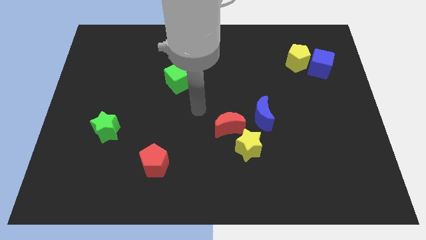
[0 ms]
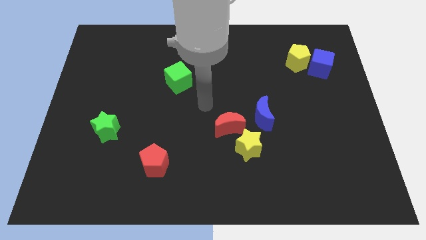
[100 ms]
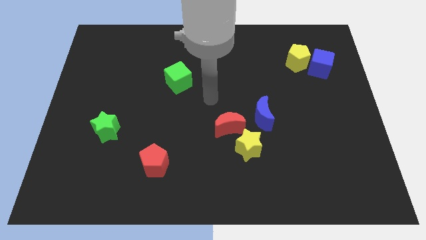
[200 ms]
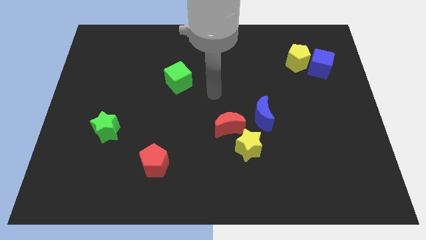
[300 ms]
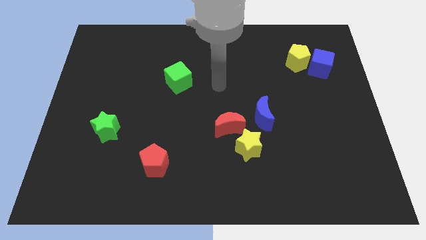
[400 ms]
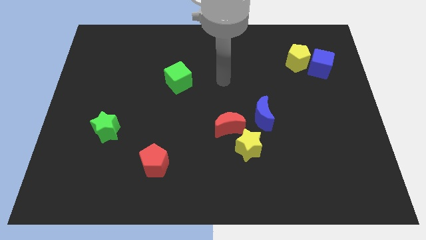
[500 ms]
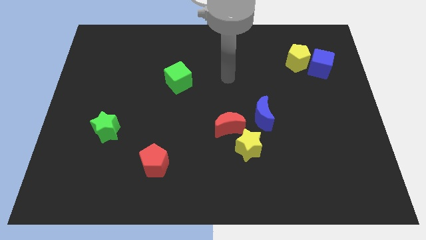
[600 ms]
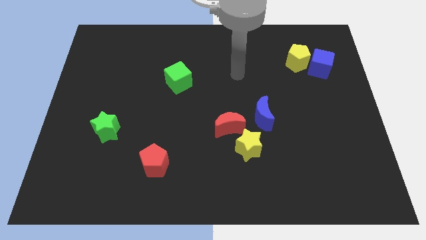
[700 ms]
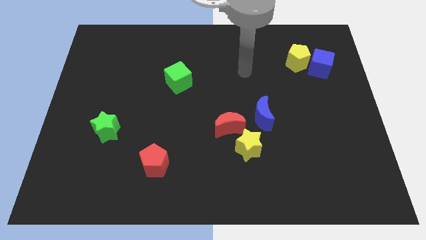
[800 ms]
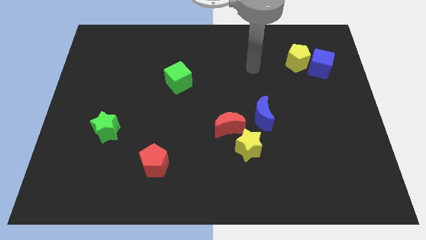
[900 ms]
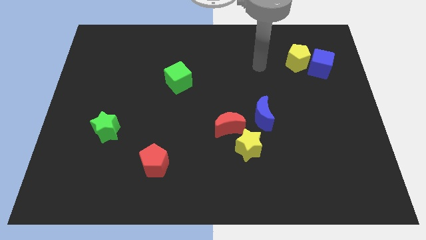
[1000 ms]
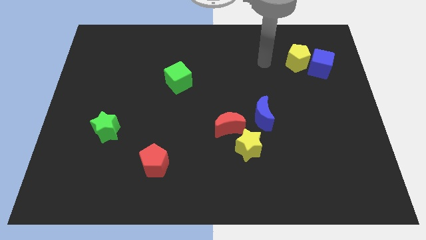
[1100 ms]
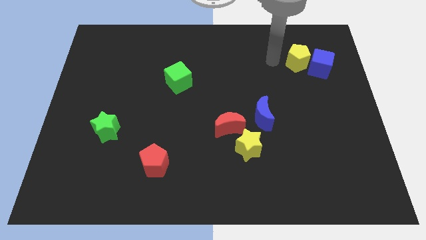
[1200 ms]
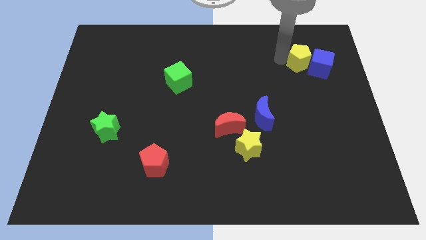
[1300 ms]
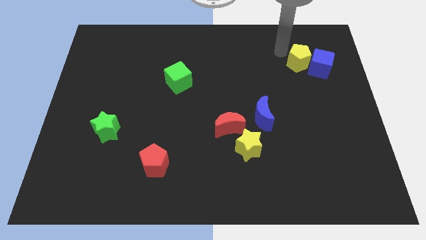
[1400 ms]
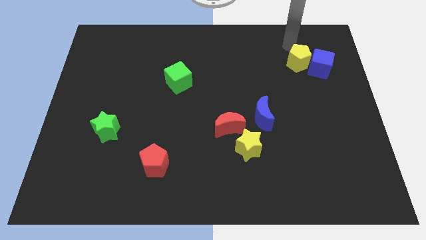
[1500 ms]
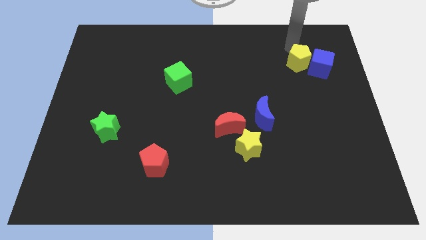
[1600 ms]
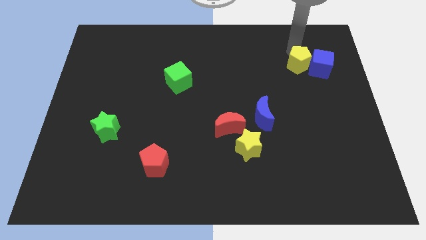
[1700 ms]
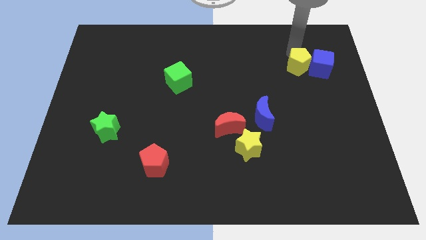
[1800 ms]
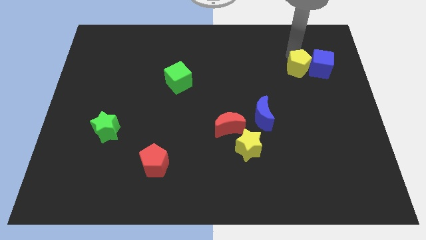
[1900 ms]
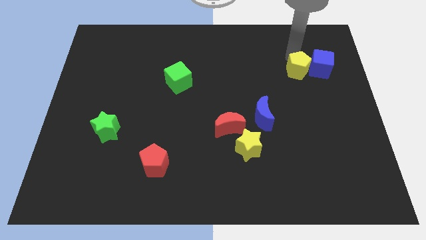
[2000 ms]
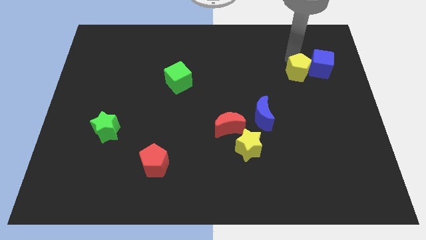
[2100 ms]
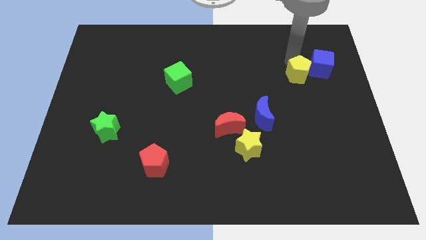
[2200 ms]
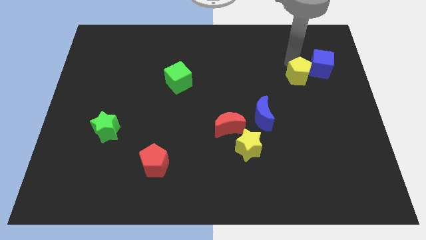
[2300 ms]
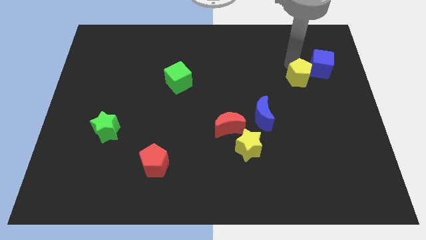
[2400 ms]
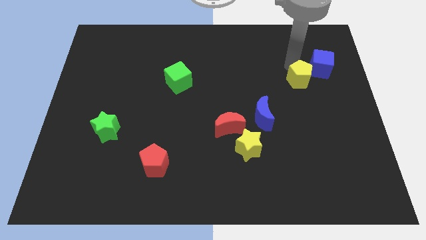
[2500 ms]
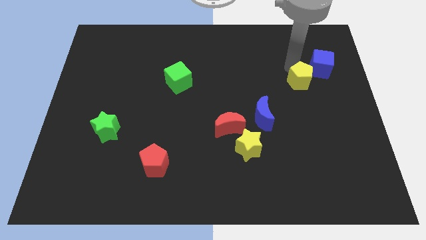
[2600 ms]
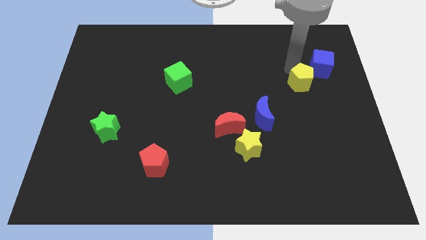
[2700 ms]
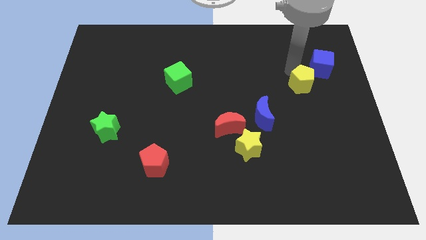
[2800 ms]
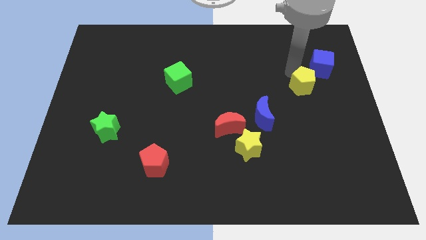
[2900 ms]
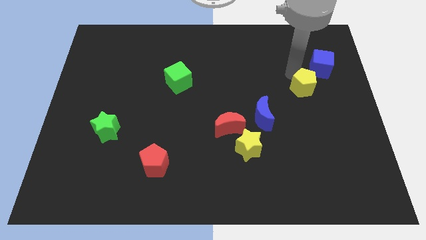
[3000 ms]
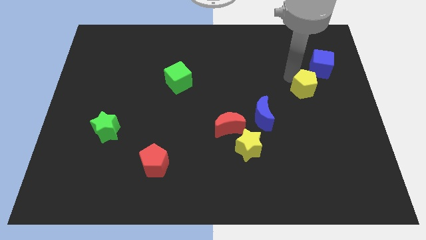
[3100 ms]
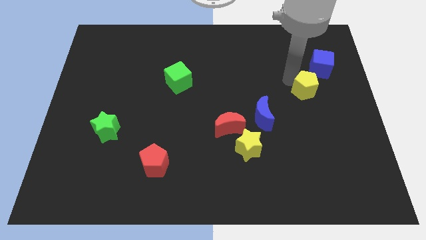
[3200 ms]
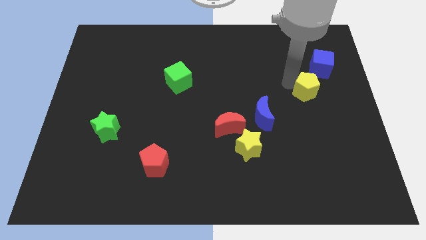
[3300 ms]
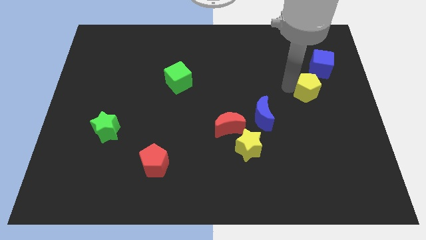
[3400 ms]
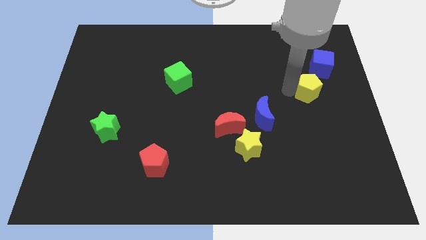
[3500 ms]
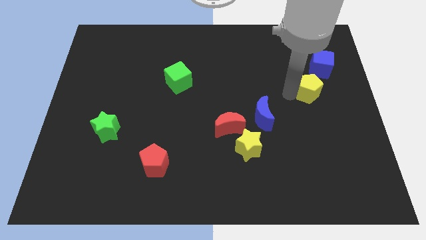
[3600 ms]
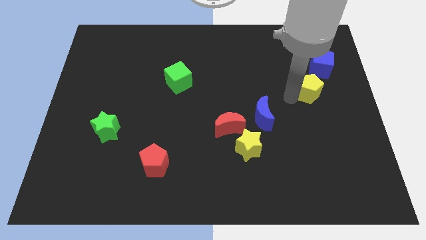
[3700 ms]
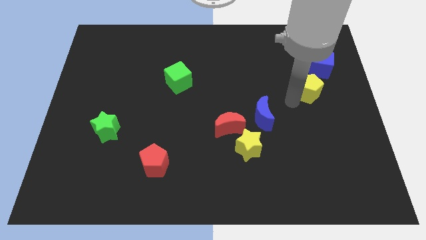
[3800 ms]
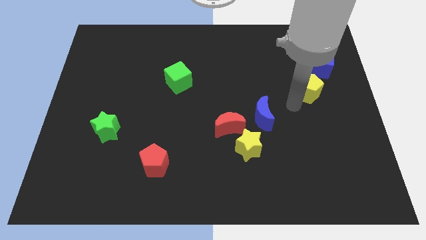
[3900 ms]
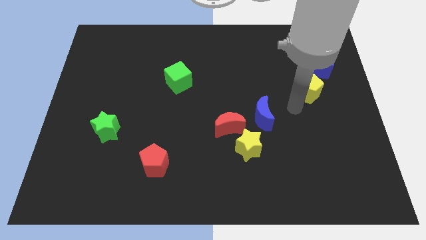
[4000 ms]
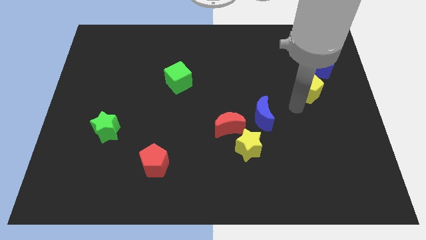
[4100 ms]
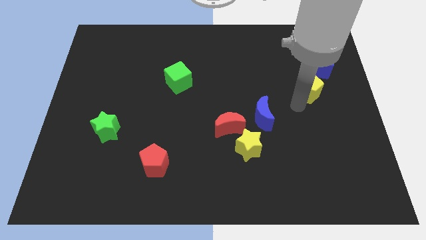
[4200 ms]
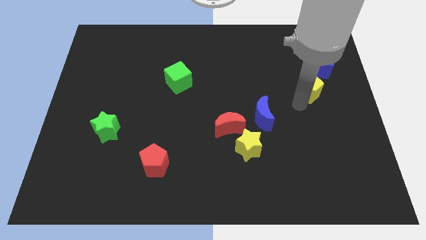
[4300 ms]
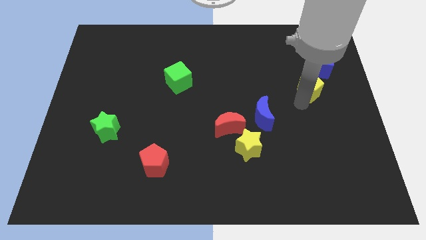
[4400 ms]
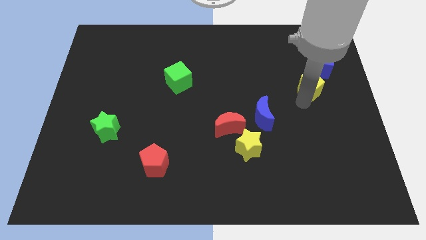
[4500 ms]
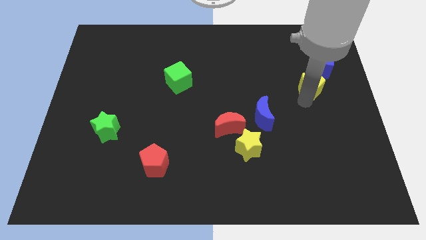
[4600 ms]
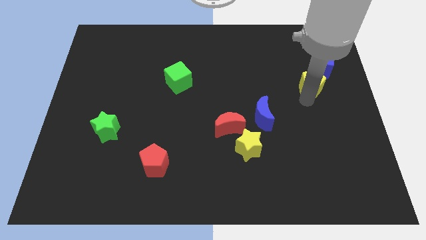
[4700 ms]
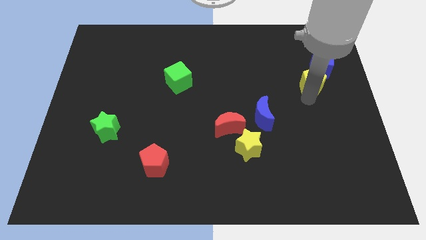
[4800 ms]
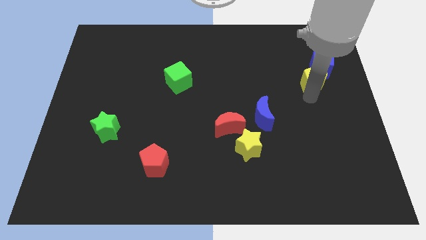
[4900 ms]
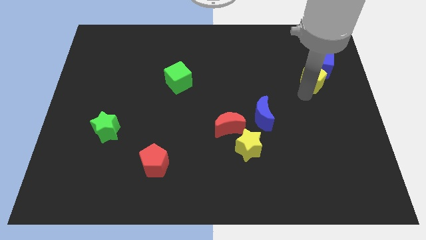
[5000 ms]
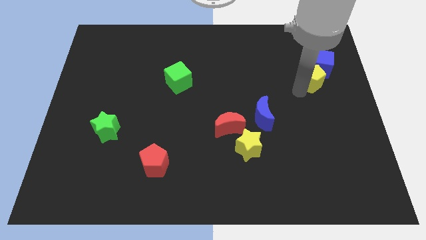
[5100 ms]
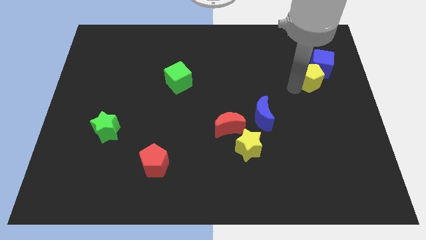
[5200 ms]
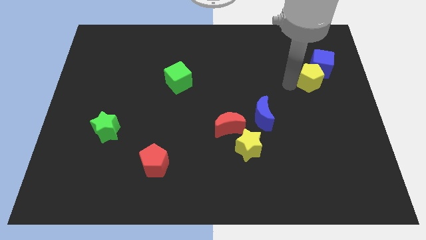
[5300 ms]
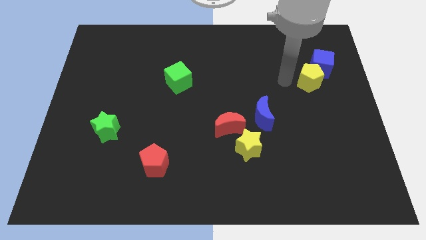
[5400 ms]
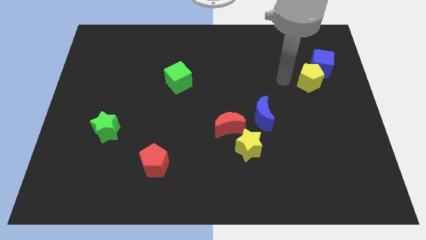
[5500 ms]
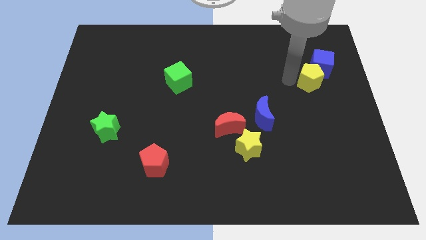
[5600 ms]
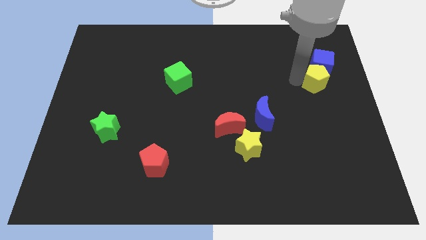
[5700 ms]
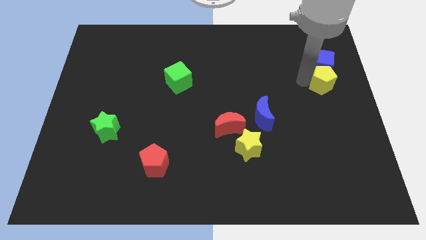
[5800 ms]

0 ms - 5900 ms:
move the yellow pentagon to the right side of the board
